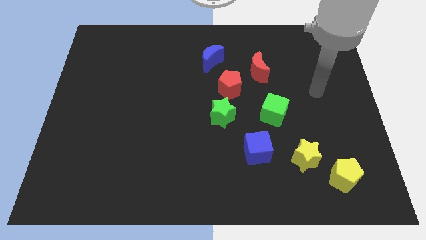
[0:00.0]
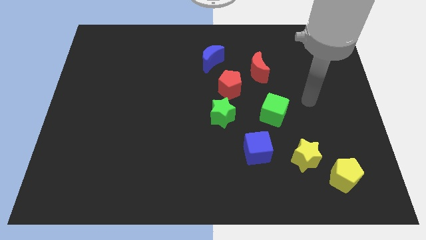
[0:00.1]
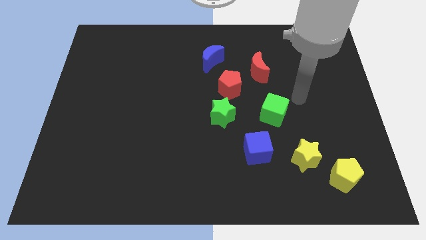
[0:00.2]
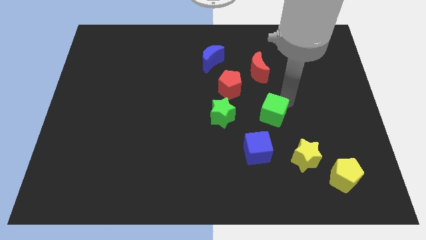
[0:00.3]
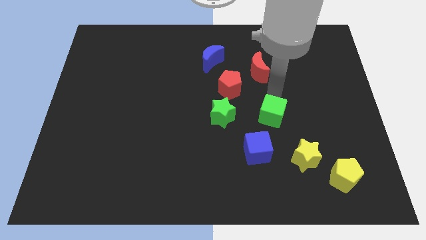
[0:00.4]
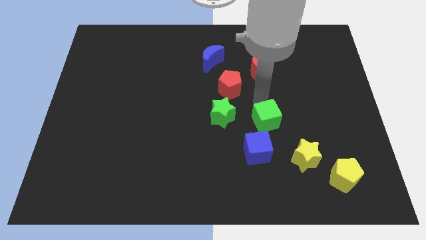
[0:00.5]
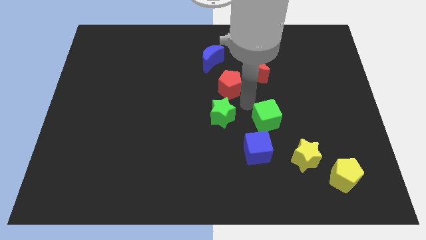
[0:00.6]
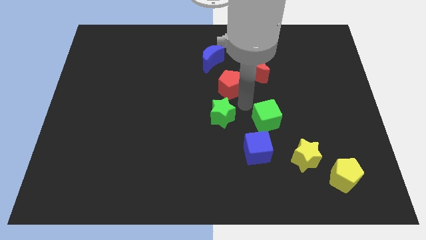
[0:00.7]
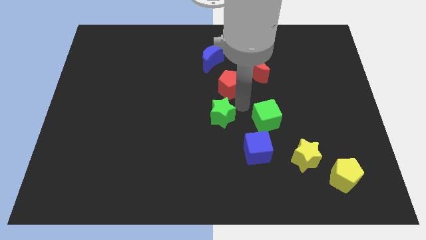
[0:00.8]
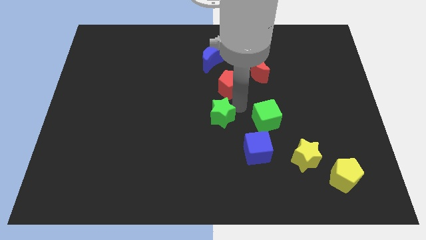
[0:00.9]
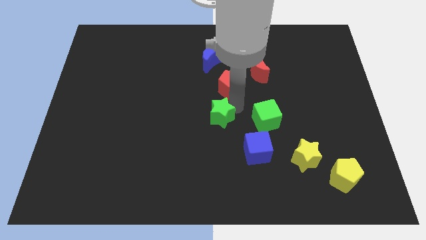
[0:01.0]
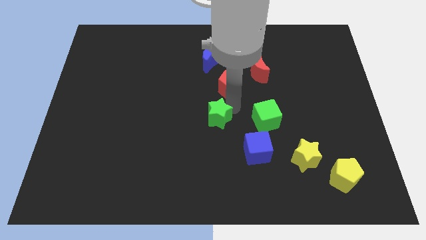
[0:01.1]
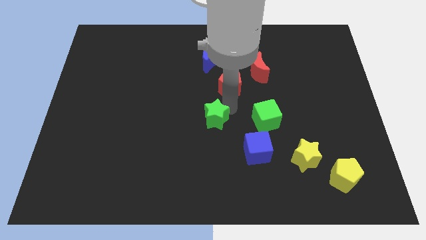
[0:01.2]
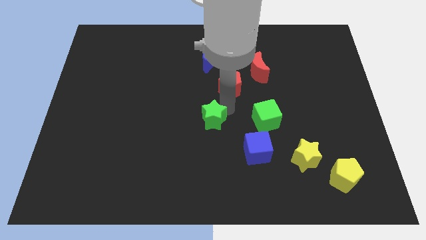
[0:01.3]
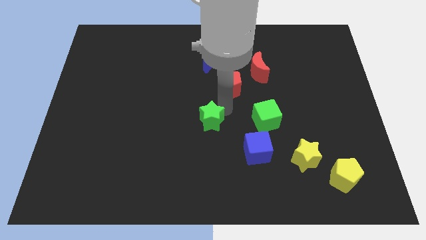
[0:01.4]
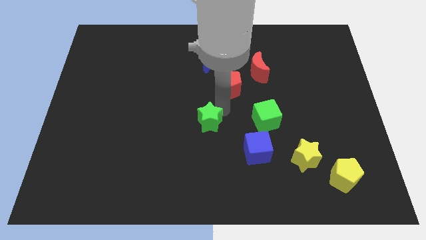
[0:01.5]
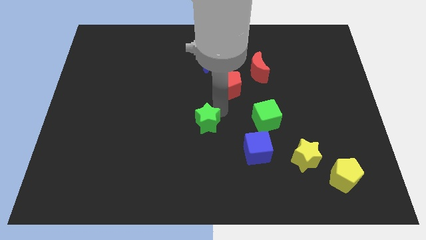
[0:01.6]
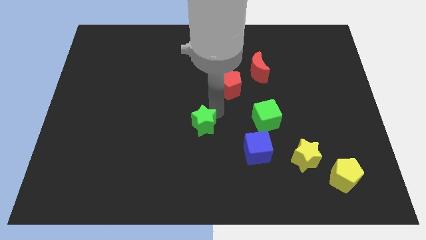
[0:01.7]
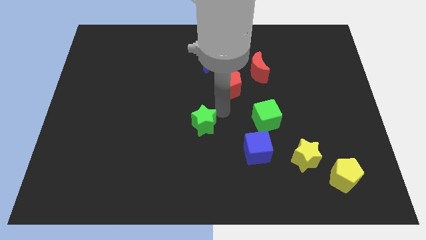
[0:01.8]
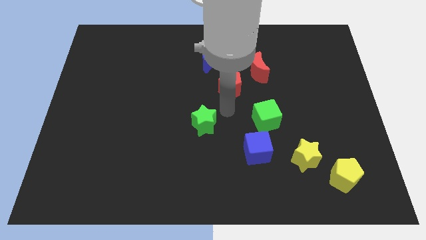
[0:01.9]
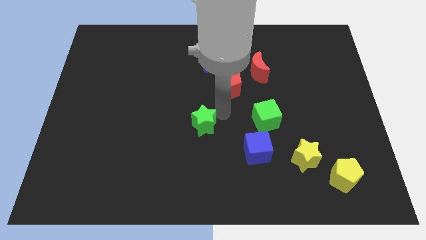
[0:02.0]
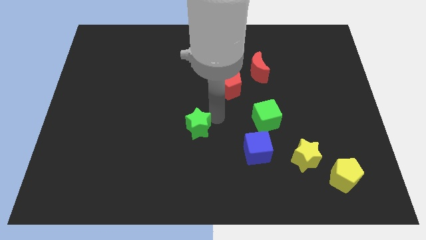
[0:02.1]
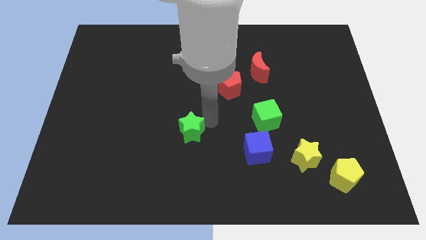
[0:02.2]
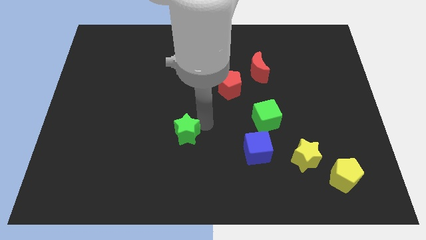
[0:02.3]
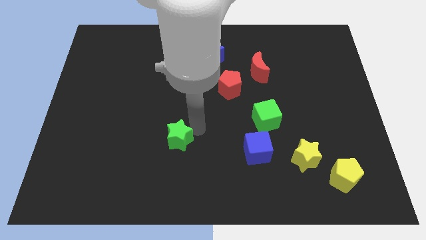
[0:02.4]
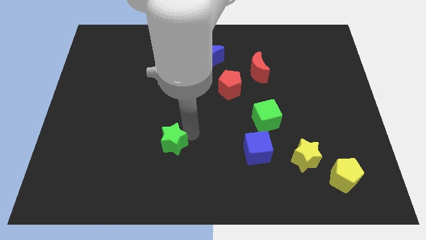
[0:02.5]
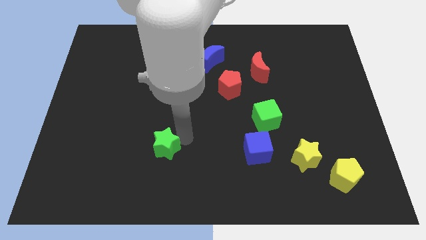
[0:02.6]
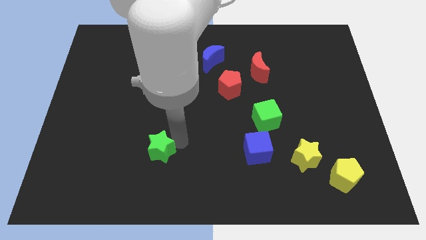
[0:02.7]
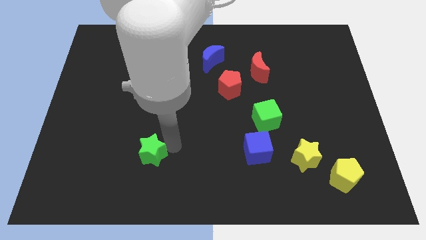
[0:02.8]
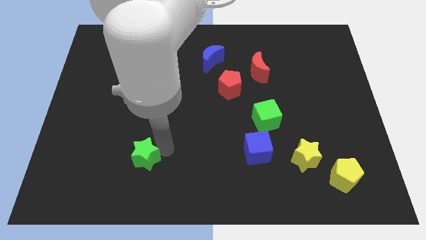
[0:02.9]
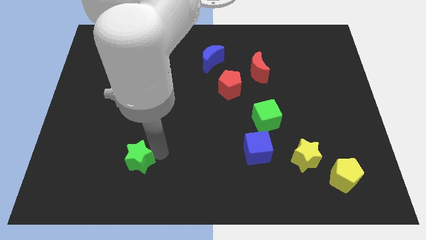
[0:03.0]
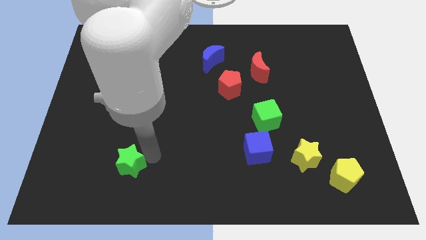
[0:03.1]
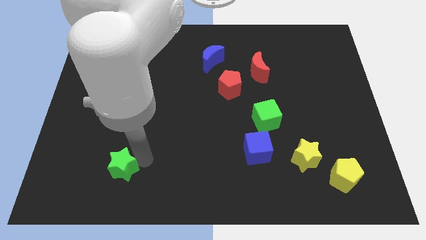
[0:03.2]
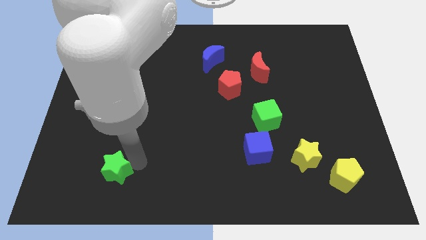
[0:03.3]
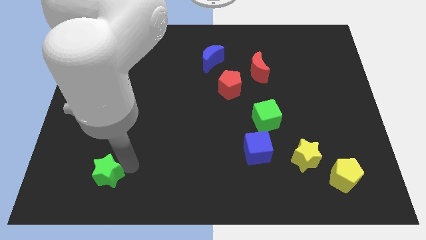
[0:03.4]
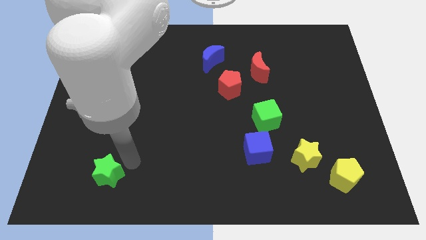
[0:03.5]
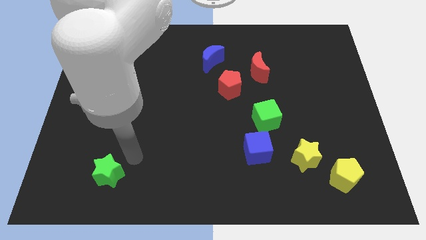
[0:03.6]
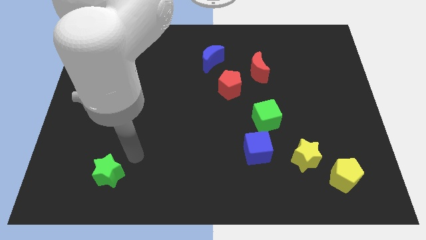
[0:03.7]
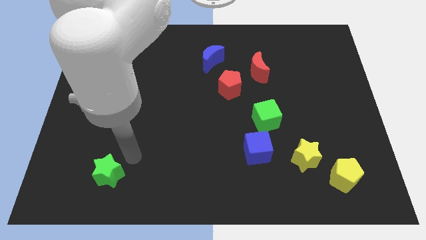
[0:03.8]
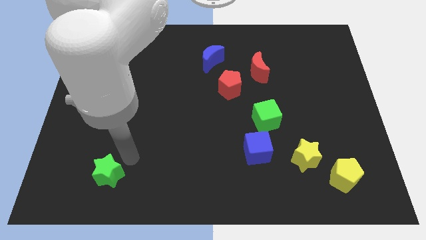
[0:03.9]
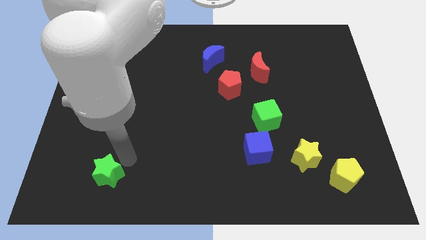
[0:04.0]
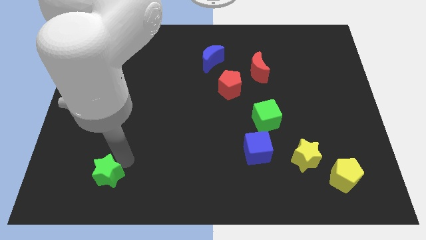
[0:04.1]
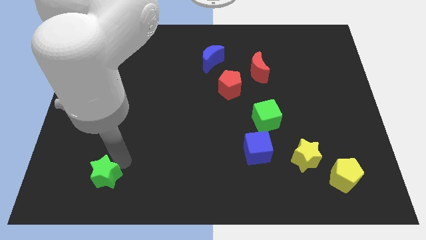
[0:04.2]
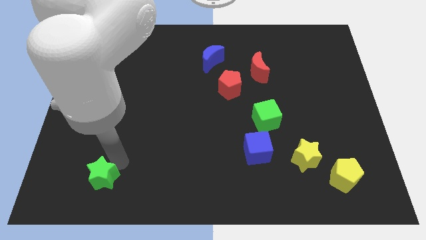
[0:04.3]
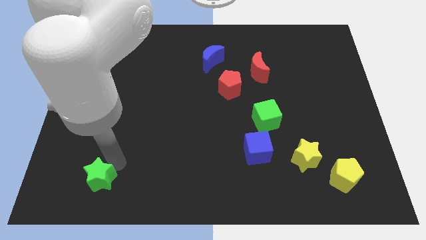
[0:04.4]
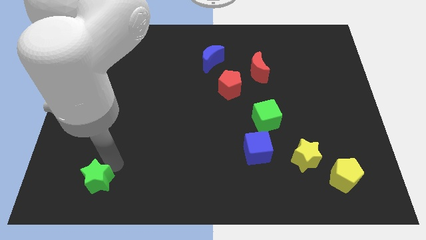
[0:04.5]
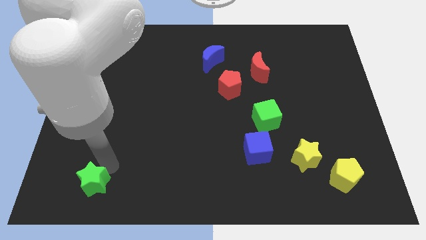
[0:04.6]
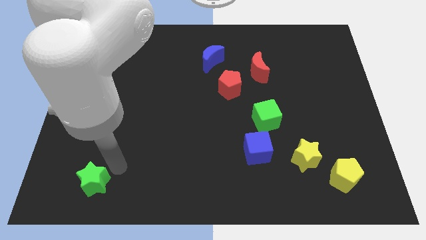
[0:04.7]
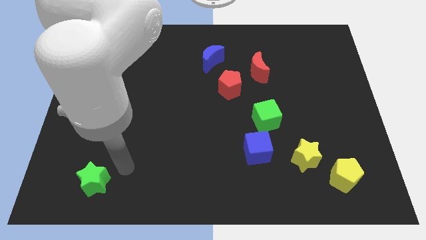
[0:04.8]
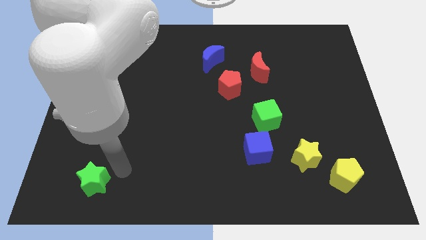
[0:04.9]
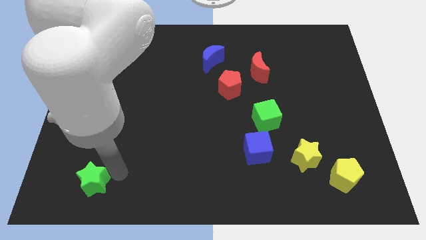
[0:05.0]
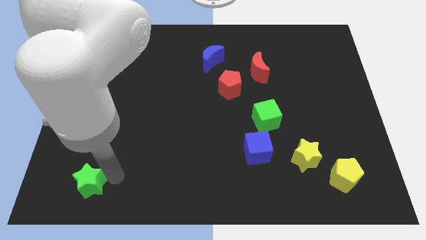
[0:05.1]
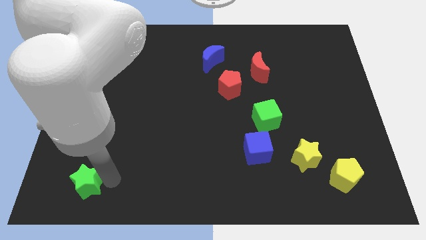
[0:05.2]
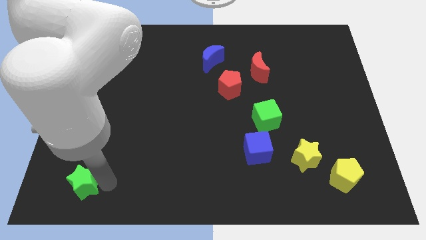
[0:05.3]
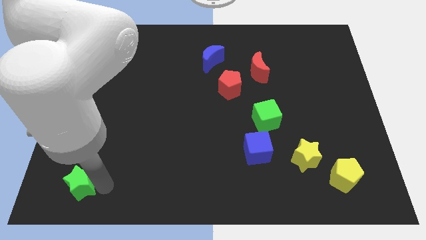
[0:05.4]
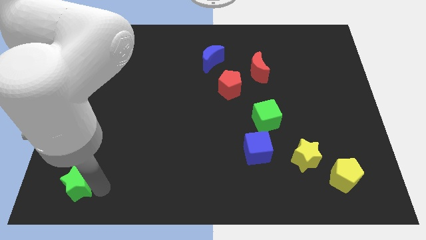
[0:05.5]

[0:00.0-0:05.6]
push the green star to the bottom left of the board
